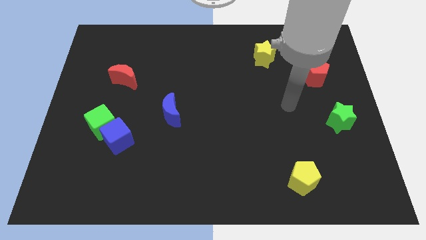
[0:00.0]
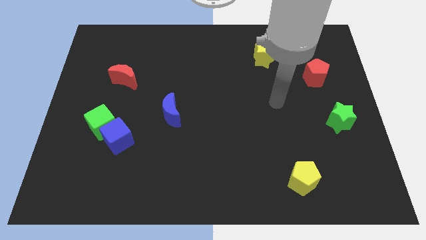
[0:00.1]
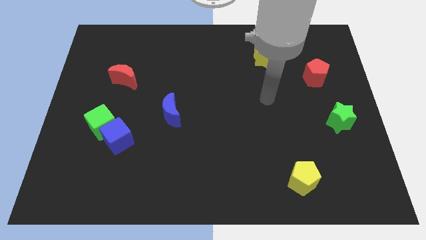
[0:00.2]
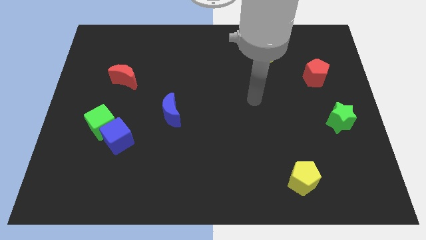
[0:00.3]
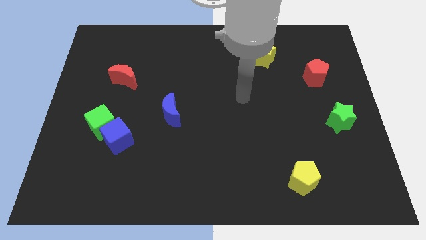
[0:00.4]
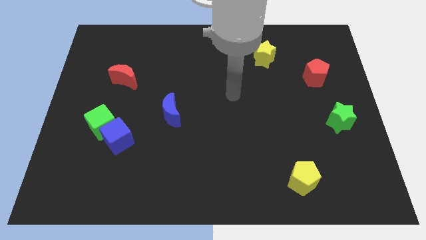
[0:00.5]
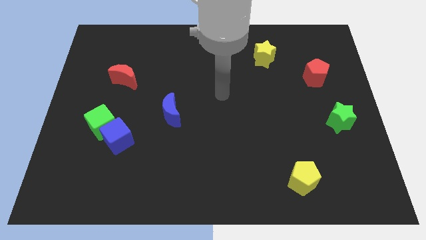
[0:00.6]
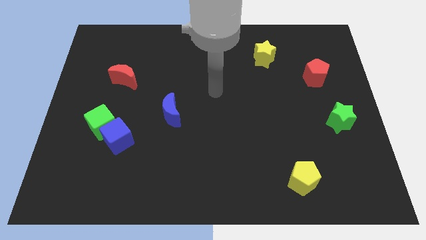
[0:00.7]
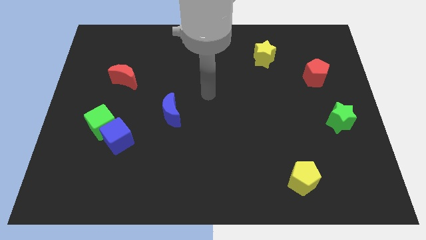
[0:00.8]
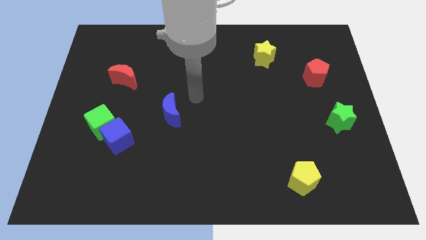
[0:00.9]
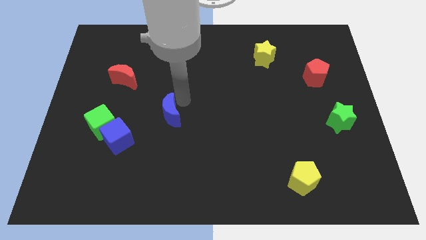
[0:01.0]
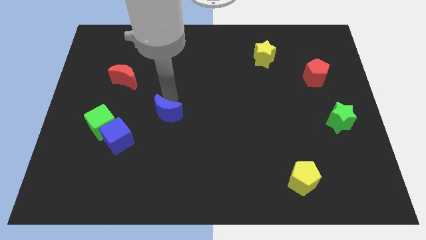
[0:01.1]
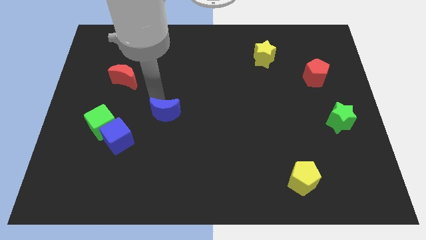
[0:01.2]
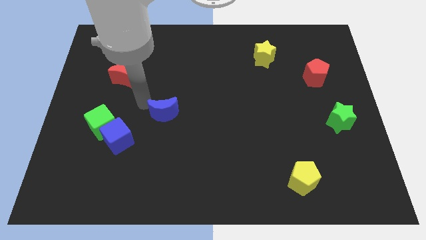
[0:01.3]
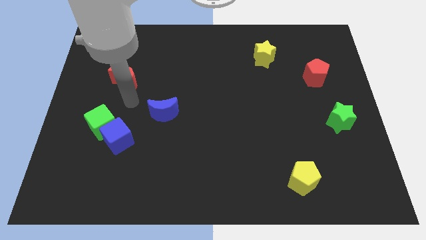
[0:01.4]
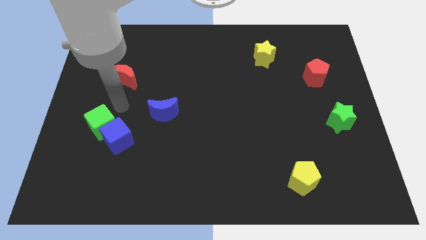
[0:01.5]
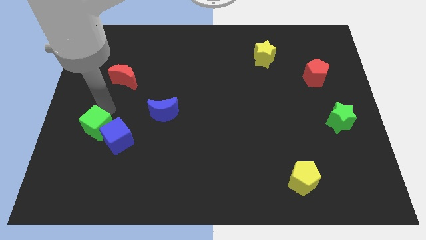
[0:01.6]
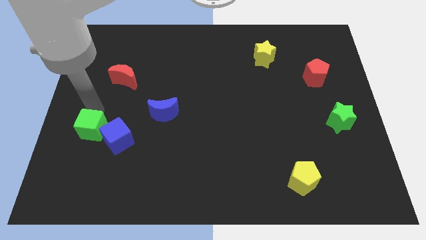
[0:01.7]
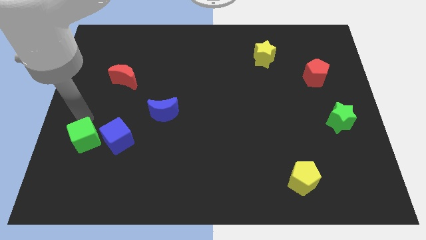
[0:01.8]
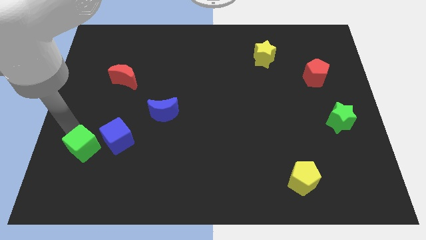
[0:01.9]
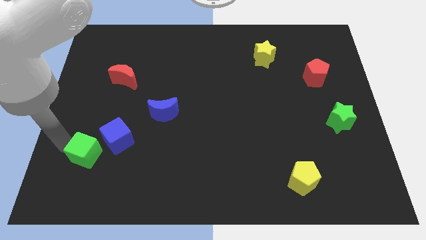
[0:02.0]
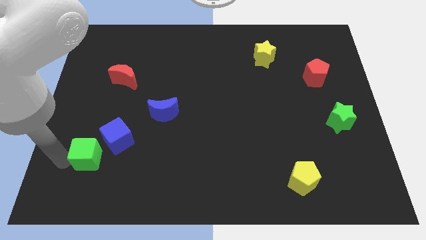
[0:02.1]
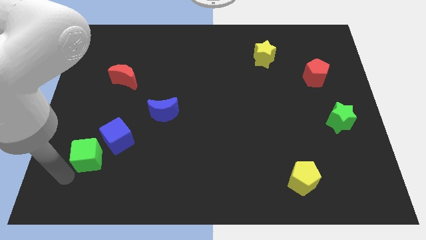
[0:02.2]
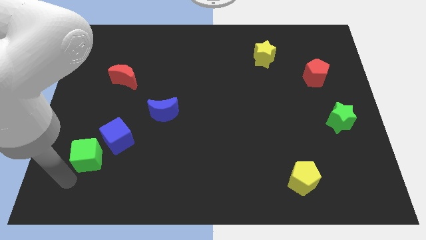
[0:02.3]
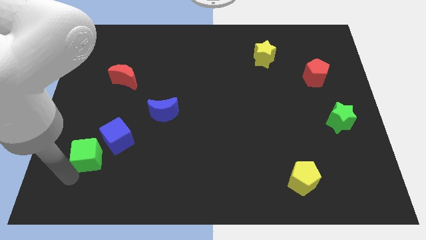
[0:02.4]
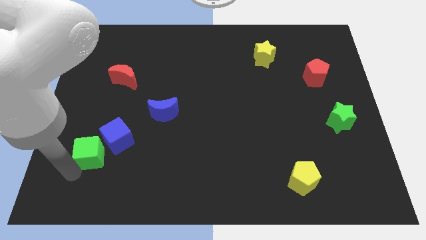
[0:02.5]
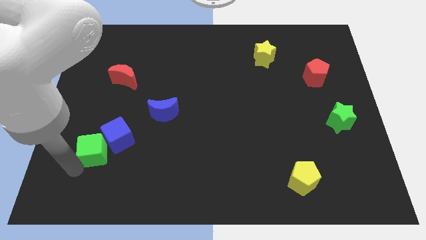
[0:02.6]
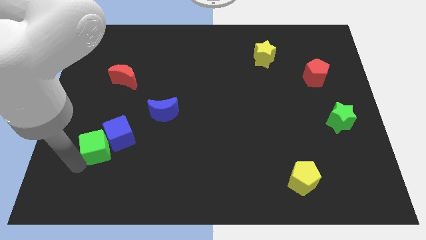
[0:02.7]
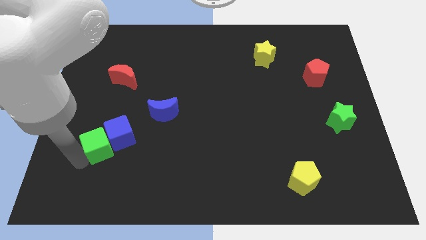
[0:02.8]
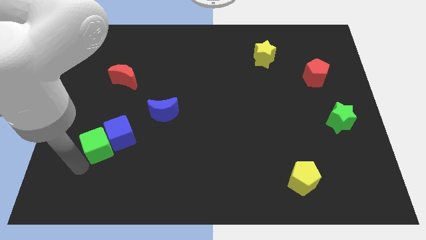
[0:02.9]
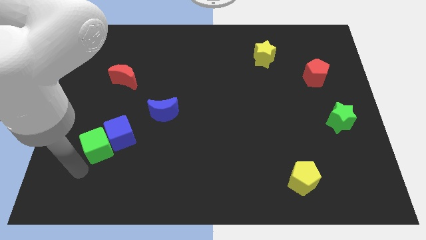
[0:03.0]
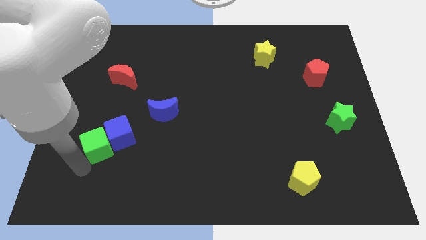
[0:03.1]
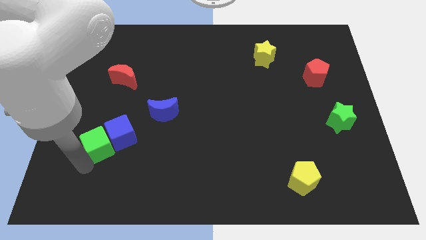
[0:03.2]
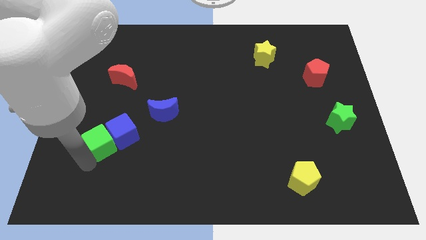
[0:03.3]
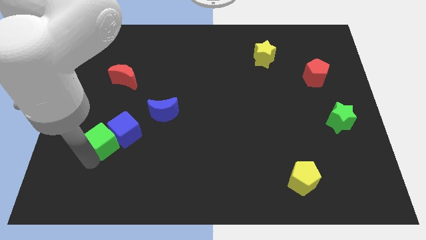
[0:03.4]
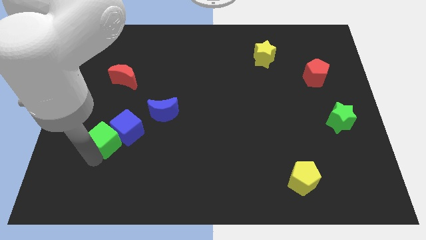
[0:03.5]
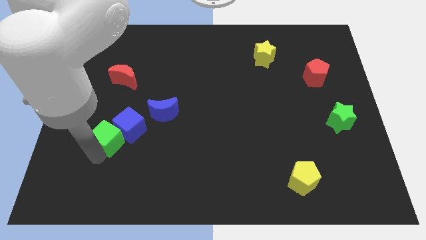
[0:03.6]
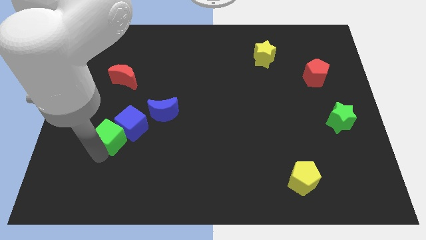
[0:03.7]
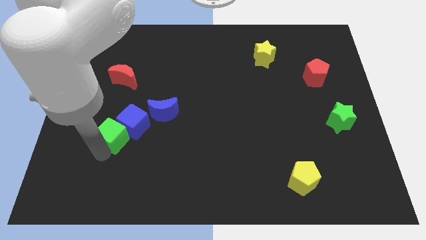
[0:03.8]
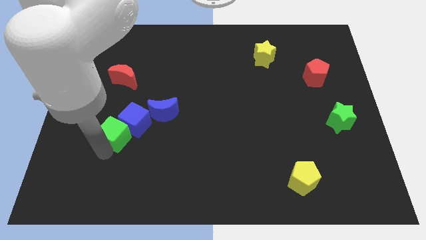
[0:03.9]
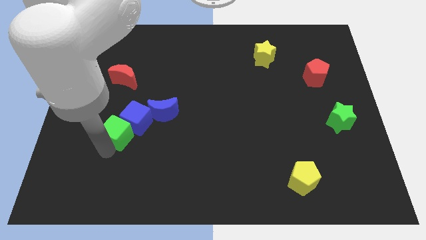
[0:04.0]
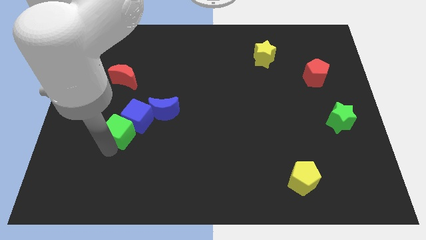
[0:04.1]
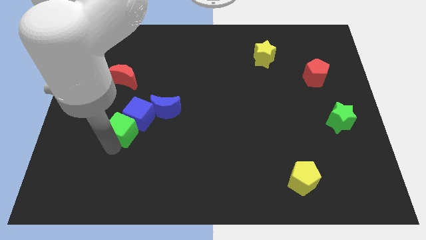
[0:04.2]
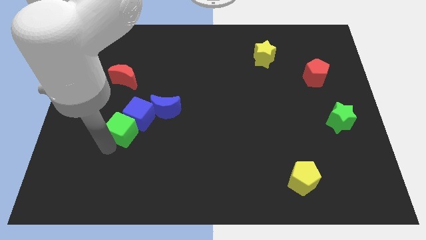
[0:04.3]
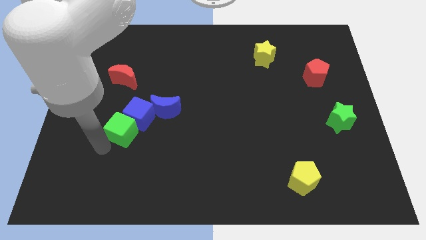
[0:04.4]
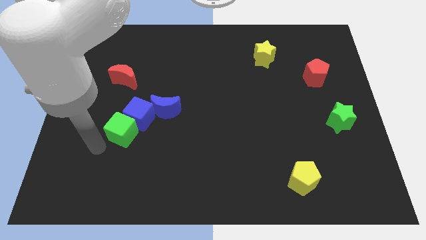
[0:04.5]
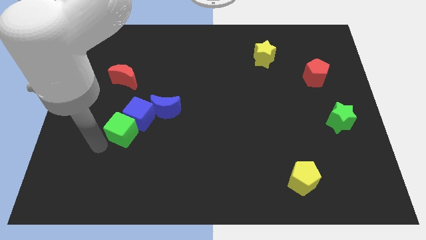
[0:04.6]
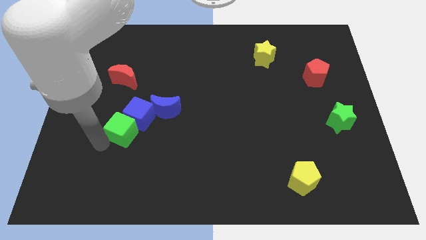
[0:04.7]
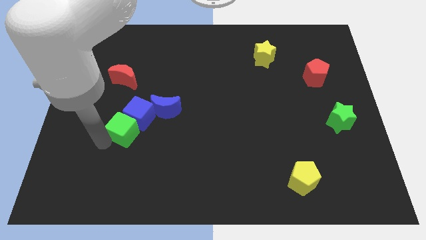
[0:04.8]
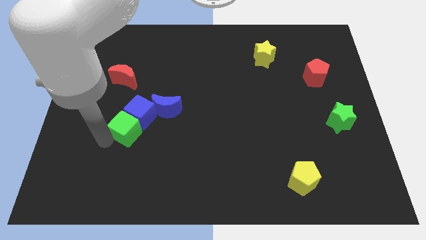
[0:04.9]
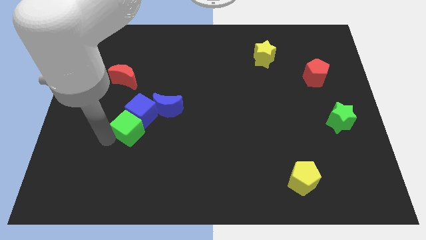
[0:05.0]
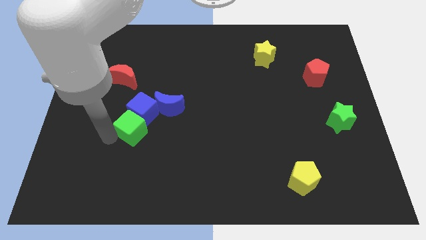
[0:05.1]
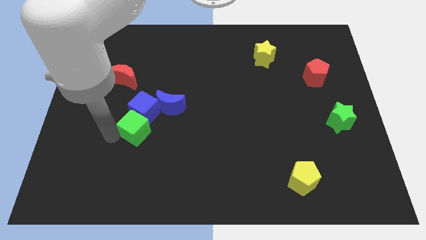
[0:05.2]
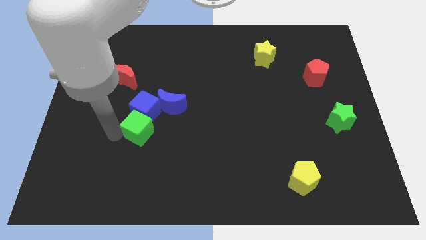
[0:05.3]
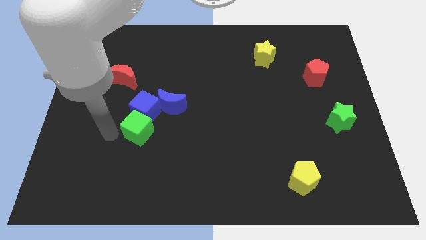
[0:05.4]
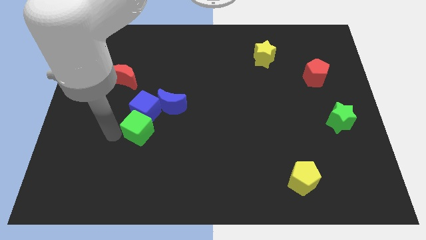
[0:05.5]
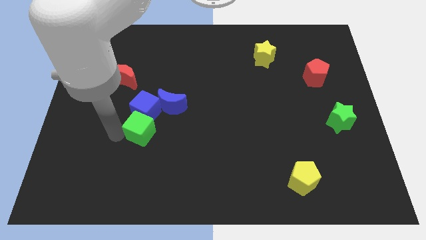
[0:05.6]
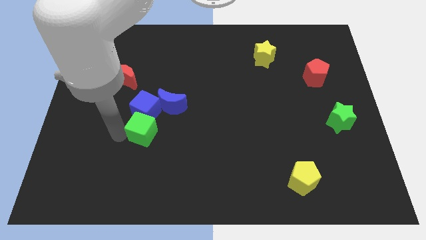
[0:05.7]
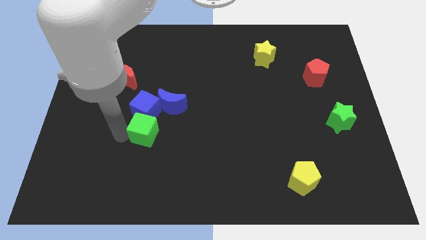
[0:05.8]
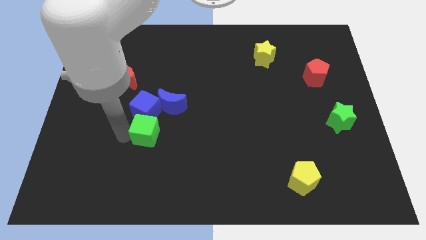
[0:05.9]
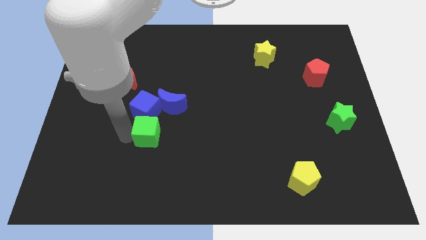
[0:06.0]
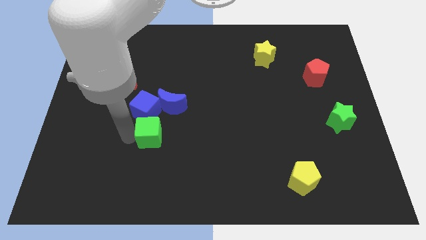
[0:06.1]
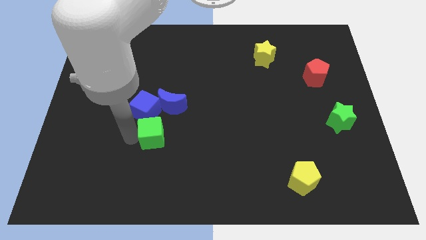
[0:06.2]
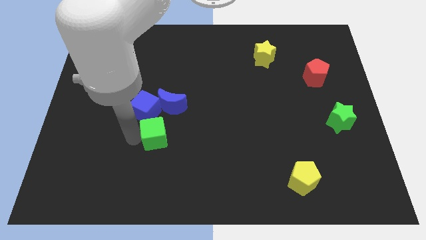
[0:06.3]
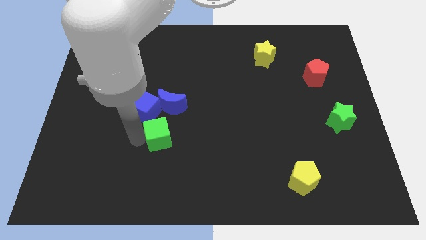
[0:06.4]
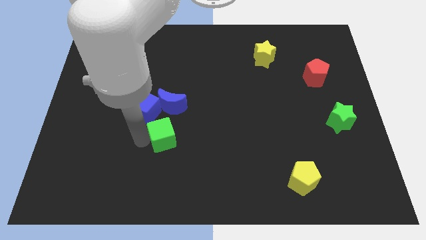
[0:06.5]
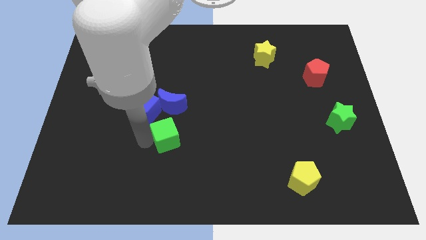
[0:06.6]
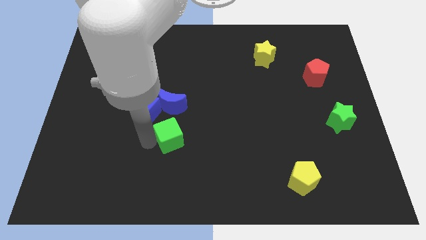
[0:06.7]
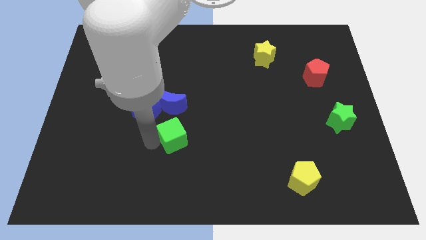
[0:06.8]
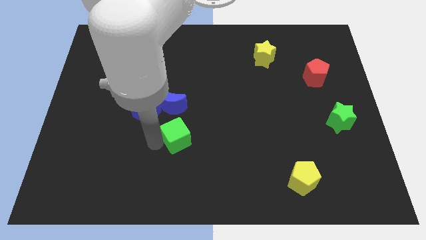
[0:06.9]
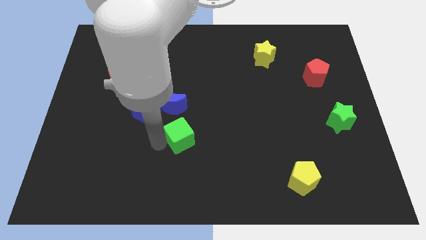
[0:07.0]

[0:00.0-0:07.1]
slide the green cube to the bottom right side of the blue moon
